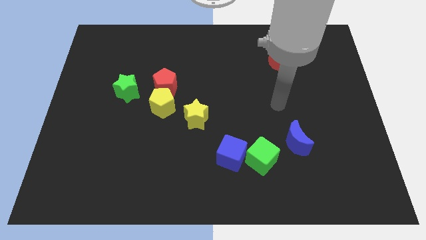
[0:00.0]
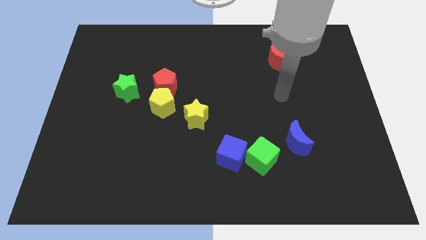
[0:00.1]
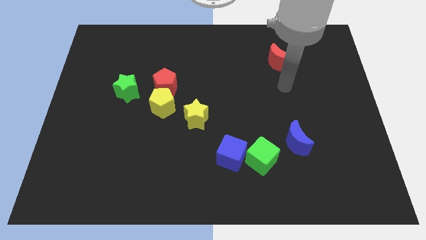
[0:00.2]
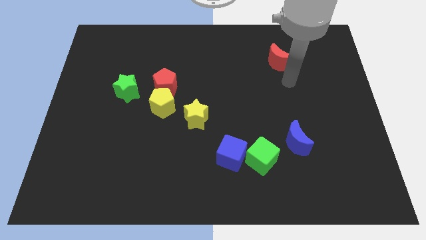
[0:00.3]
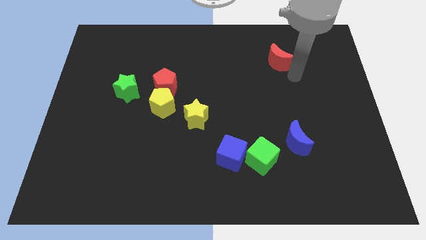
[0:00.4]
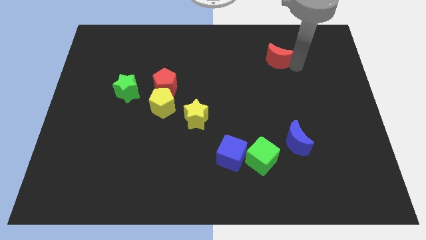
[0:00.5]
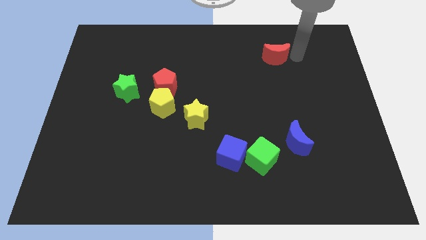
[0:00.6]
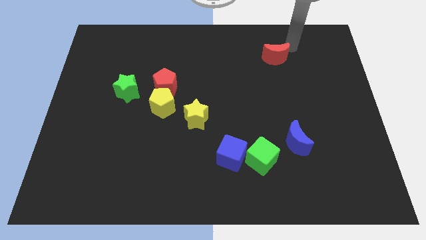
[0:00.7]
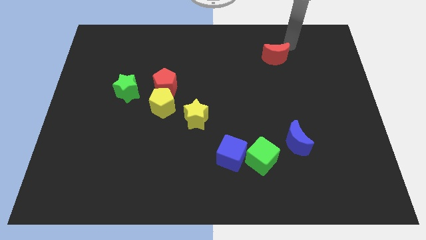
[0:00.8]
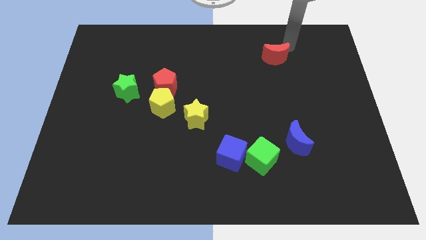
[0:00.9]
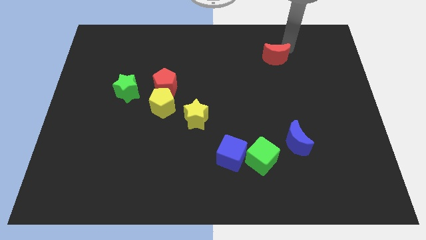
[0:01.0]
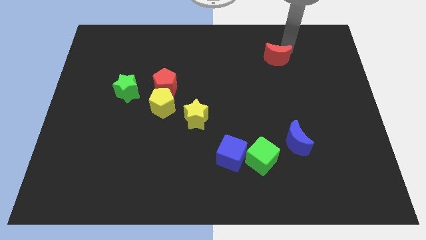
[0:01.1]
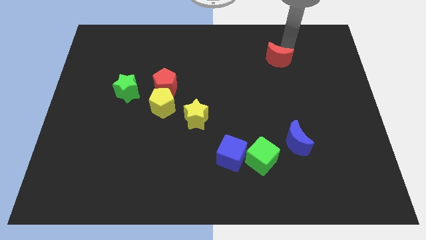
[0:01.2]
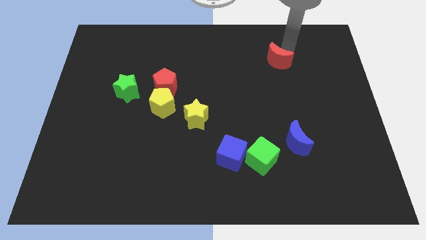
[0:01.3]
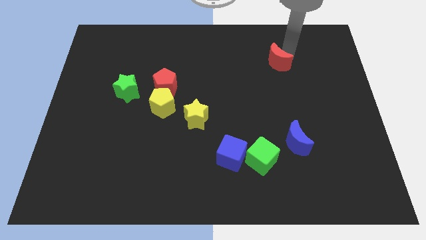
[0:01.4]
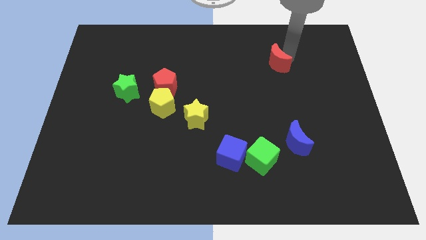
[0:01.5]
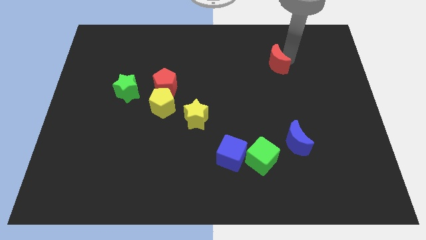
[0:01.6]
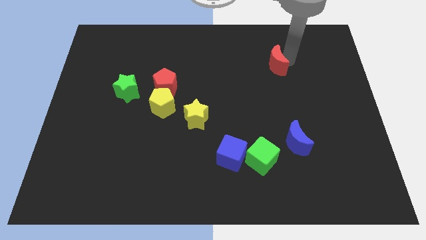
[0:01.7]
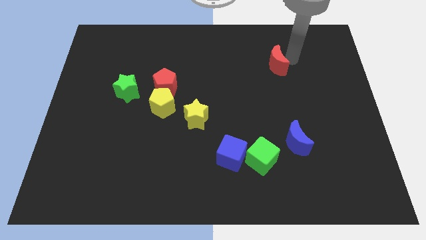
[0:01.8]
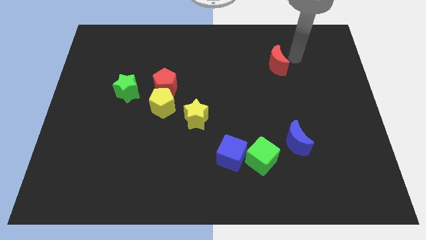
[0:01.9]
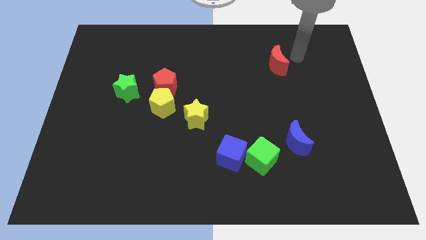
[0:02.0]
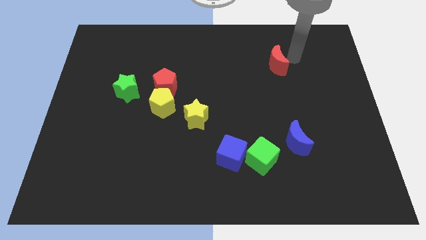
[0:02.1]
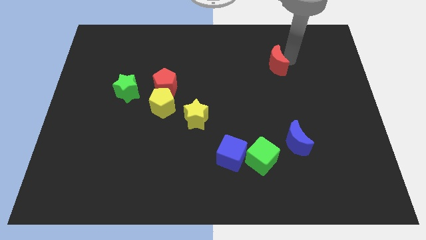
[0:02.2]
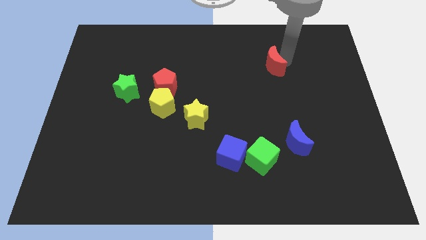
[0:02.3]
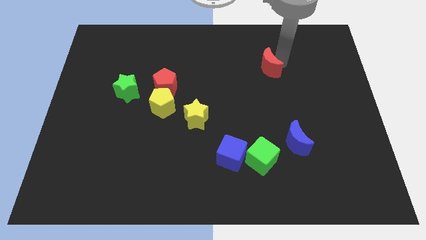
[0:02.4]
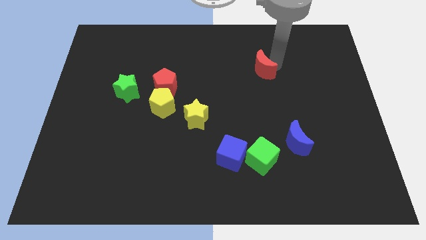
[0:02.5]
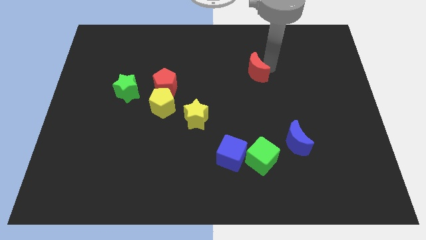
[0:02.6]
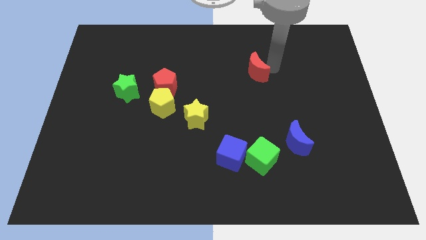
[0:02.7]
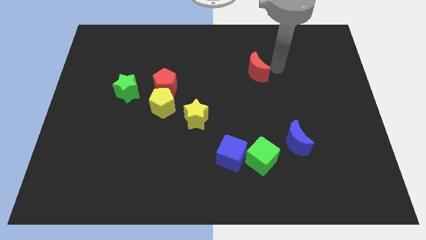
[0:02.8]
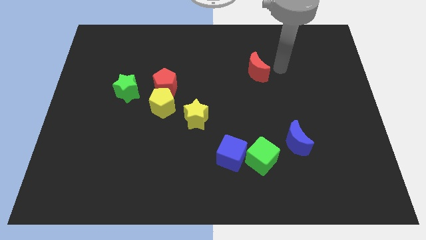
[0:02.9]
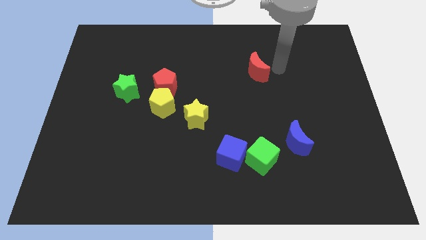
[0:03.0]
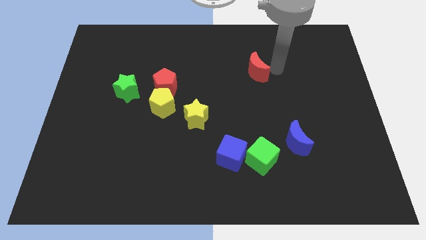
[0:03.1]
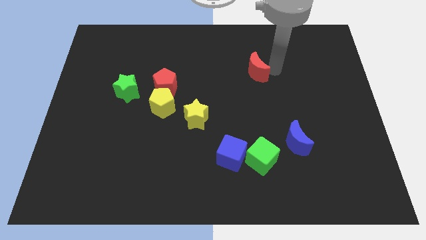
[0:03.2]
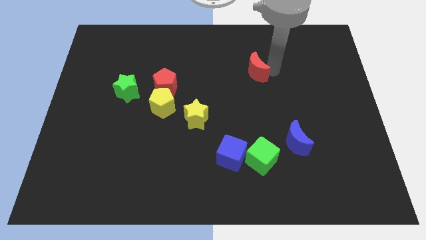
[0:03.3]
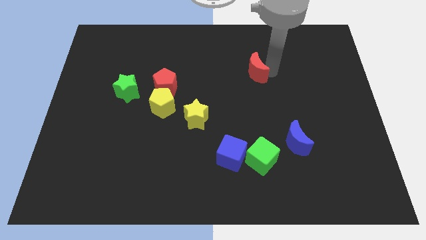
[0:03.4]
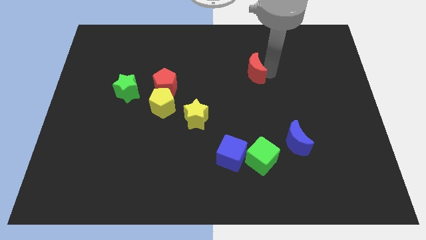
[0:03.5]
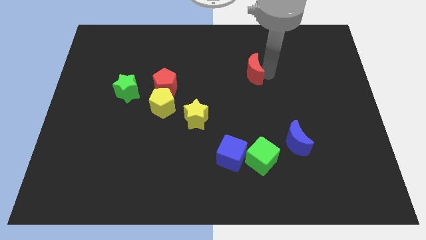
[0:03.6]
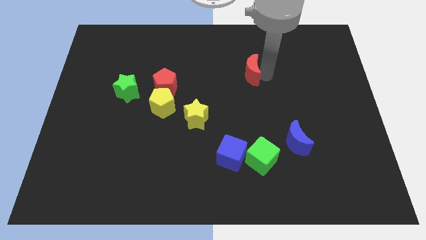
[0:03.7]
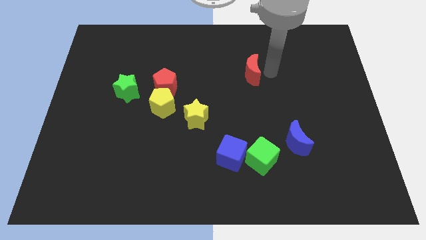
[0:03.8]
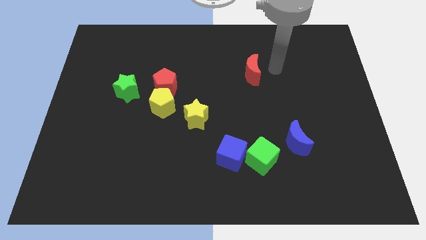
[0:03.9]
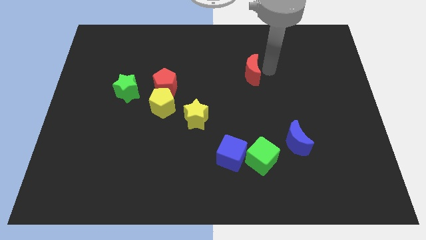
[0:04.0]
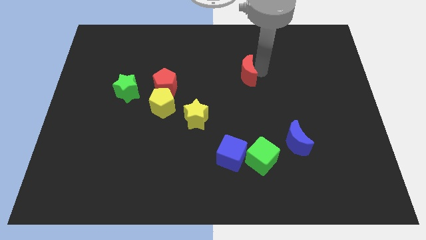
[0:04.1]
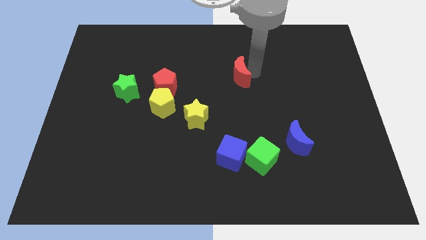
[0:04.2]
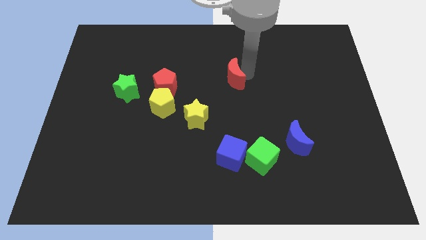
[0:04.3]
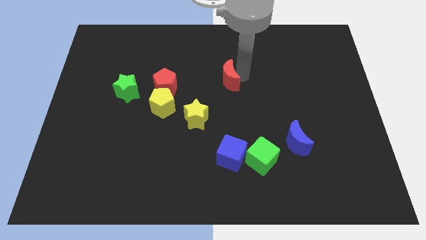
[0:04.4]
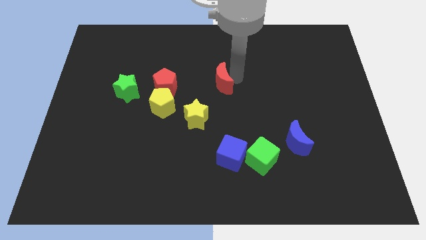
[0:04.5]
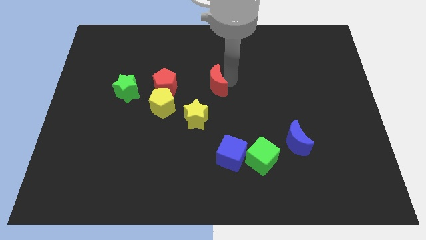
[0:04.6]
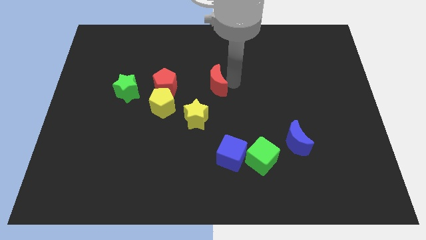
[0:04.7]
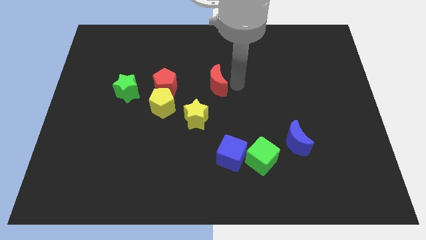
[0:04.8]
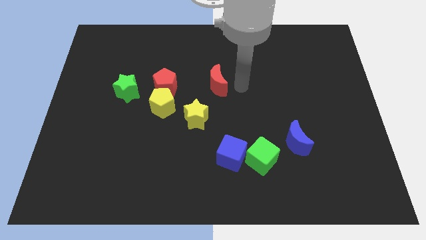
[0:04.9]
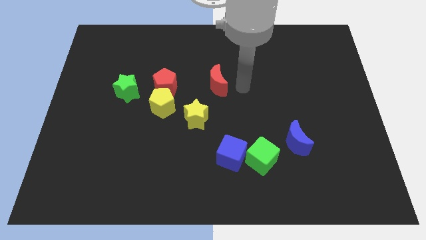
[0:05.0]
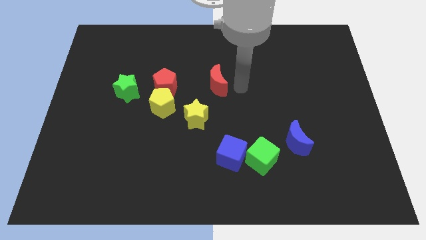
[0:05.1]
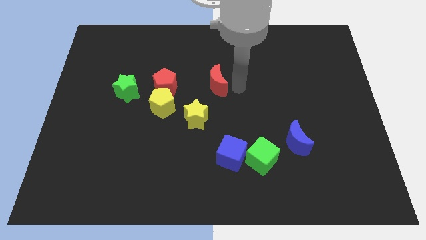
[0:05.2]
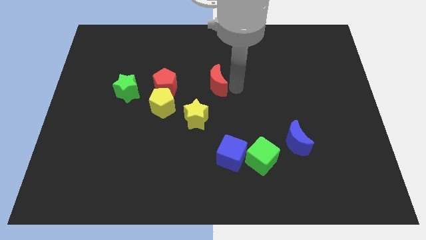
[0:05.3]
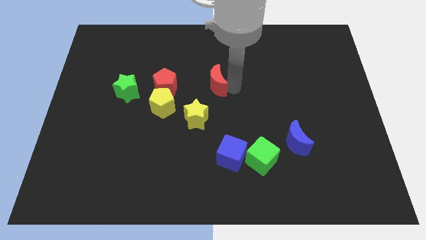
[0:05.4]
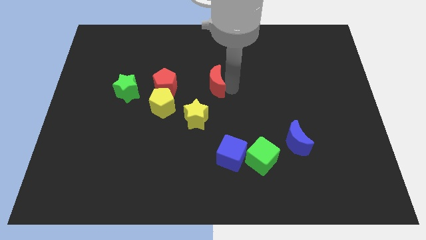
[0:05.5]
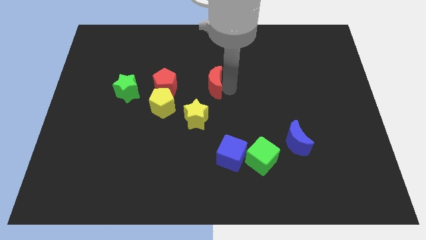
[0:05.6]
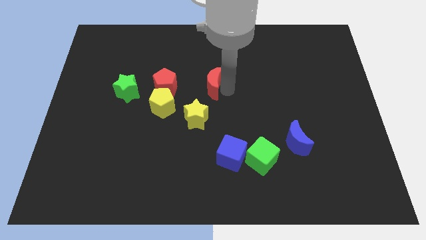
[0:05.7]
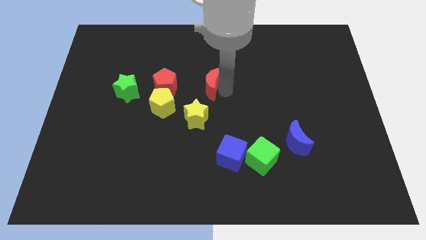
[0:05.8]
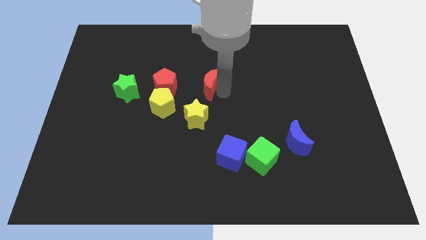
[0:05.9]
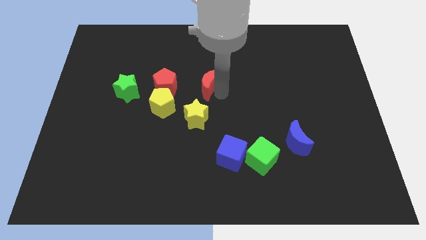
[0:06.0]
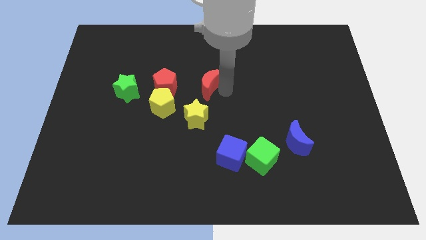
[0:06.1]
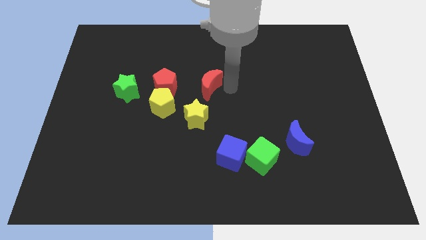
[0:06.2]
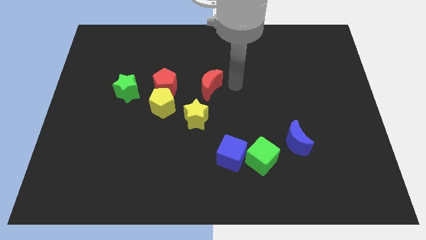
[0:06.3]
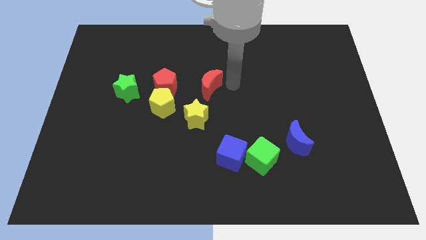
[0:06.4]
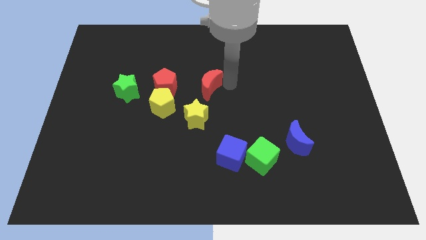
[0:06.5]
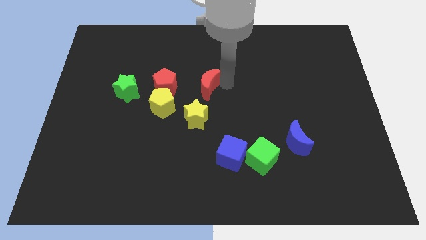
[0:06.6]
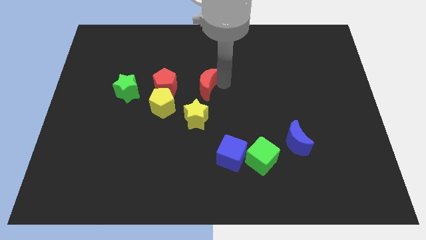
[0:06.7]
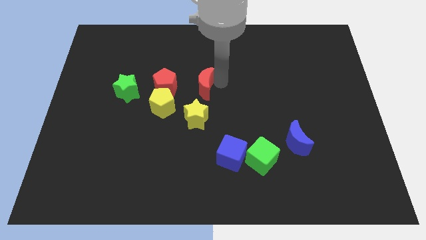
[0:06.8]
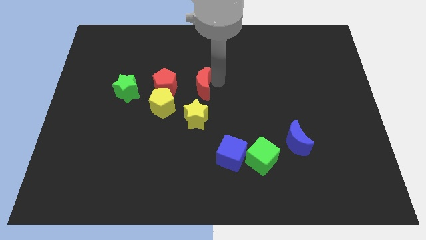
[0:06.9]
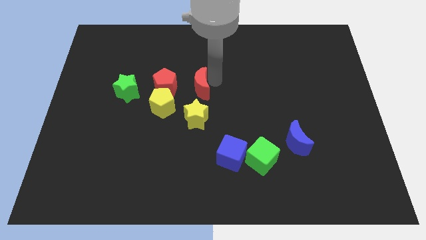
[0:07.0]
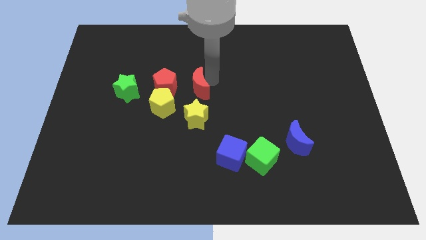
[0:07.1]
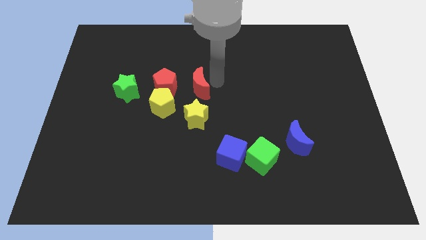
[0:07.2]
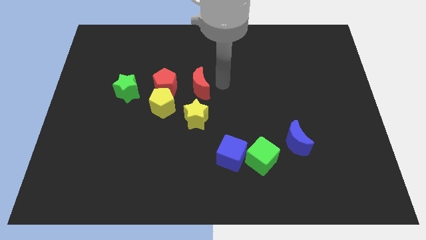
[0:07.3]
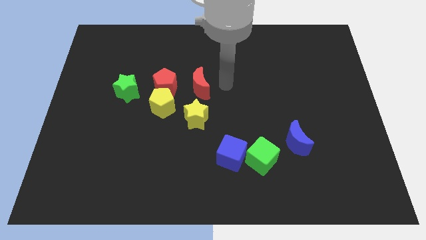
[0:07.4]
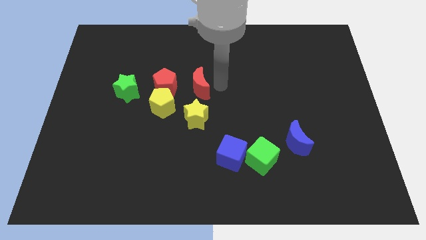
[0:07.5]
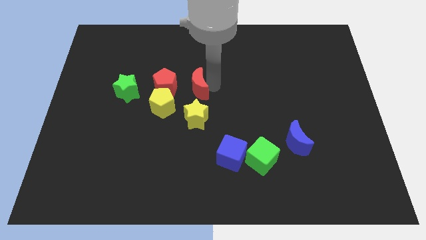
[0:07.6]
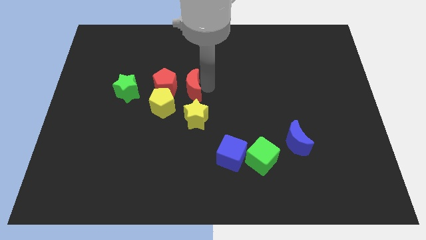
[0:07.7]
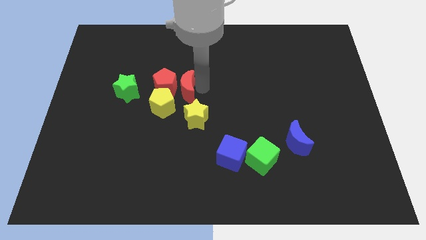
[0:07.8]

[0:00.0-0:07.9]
push the red moon to the red pentagon
